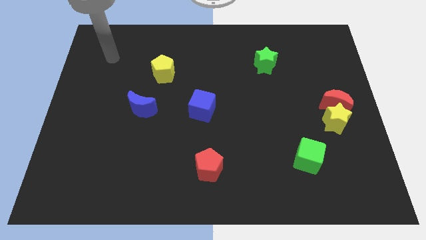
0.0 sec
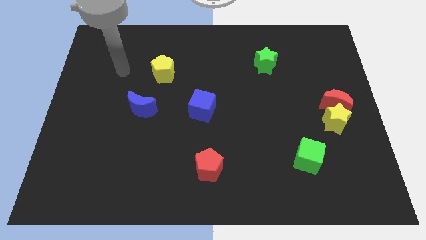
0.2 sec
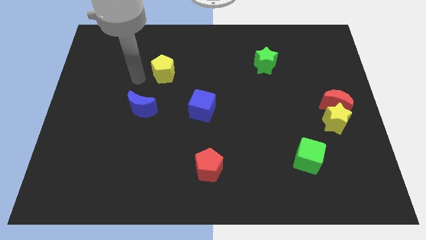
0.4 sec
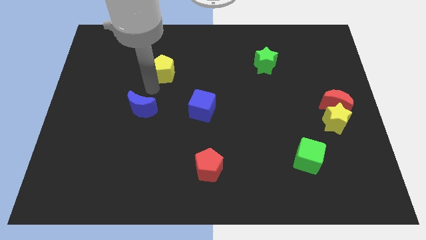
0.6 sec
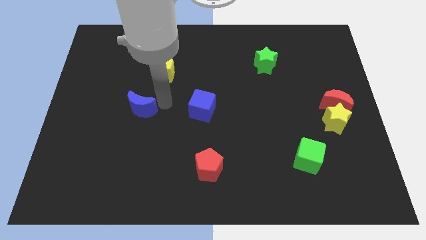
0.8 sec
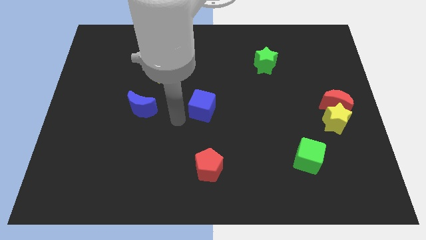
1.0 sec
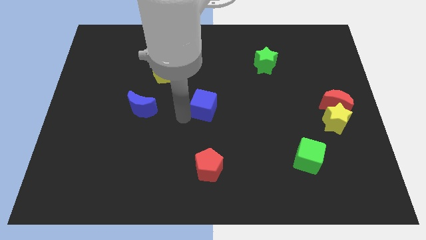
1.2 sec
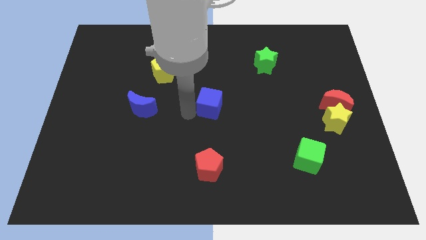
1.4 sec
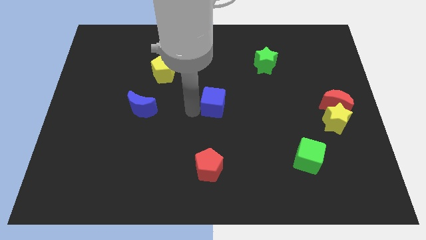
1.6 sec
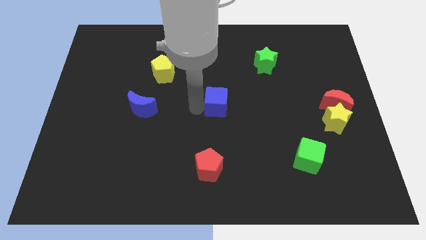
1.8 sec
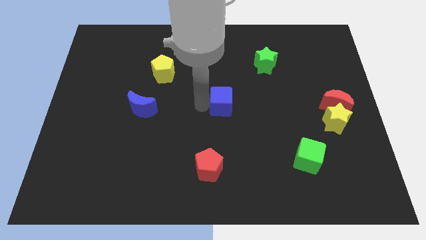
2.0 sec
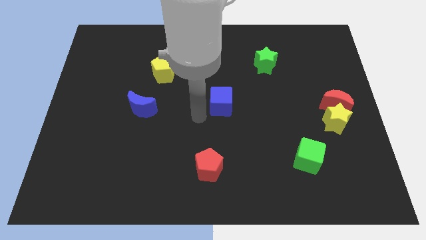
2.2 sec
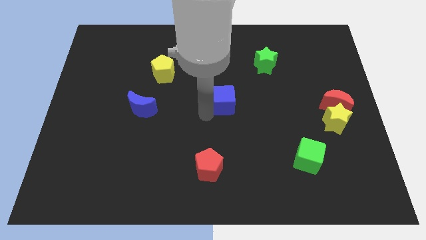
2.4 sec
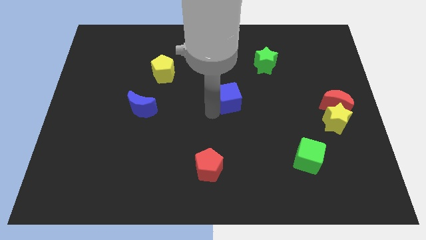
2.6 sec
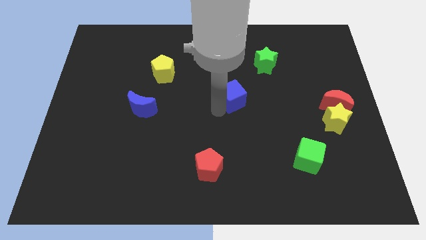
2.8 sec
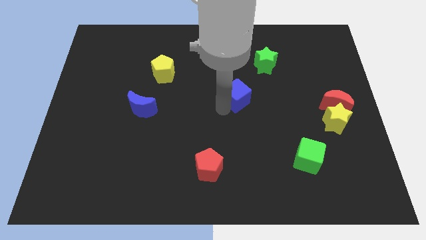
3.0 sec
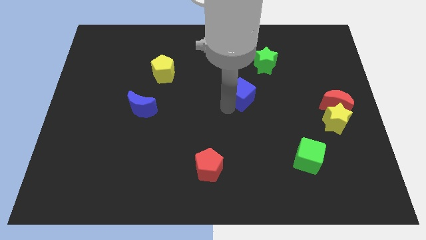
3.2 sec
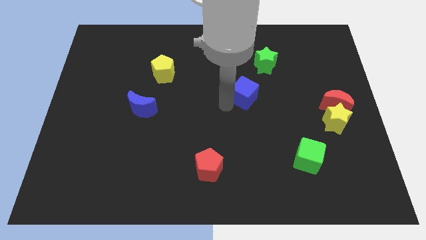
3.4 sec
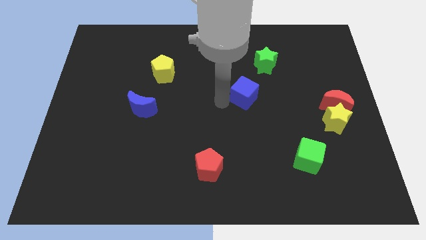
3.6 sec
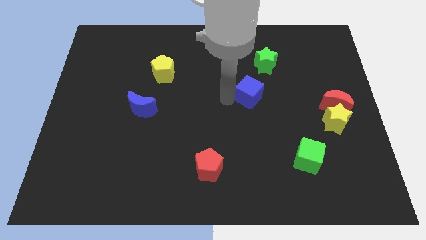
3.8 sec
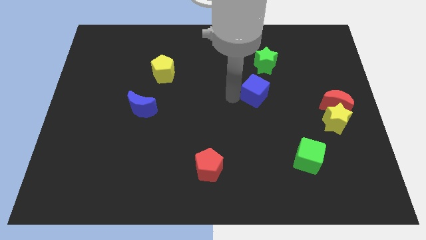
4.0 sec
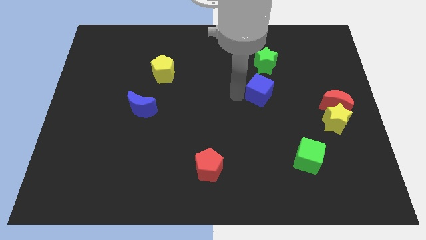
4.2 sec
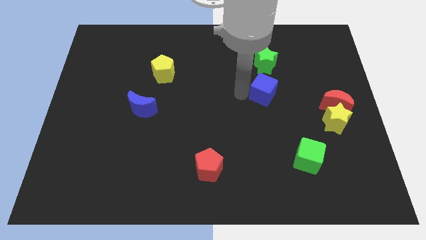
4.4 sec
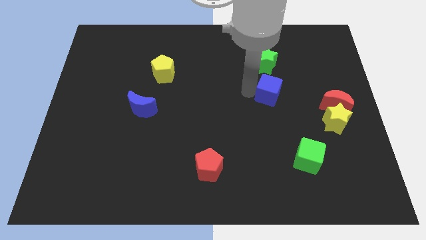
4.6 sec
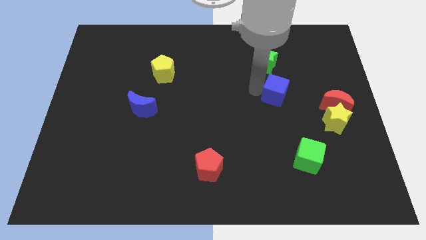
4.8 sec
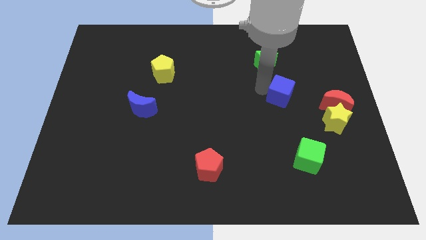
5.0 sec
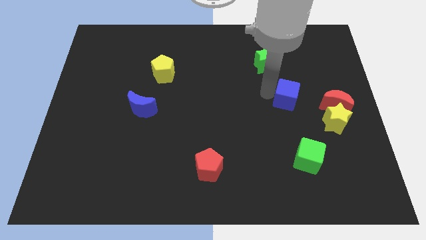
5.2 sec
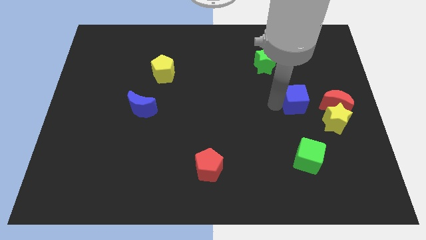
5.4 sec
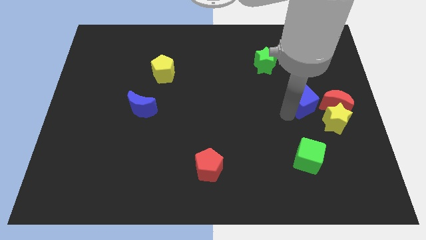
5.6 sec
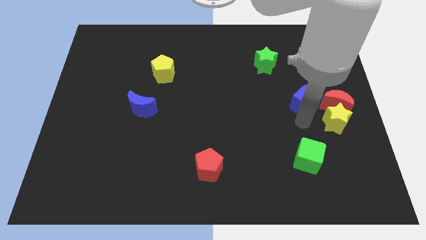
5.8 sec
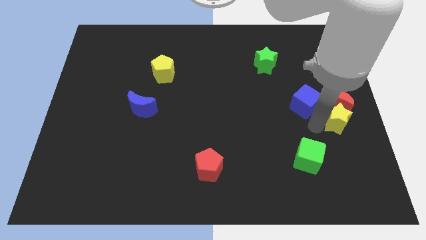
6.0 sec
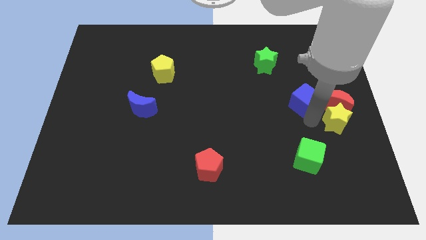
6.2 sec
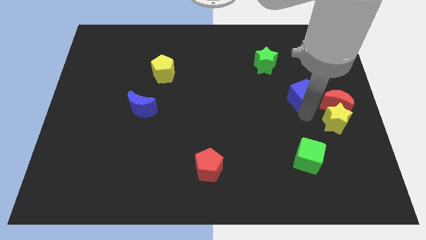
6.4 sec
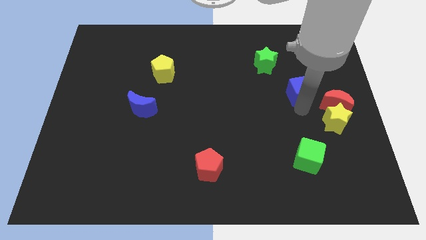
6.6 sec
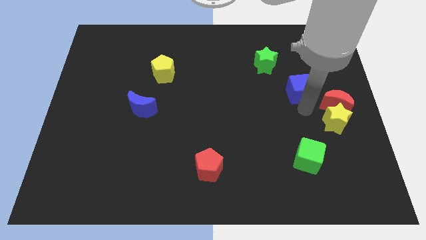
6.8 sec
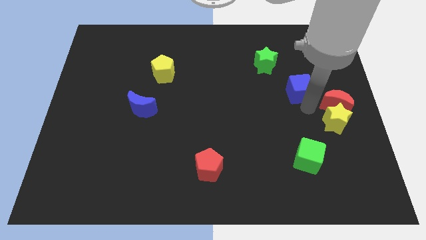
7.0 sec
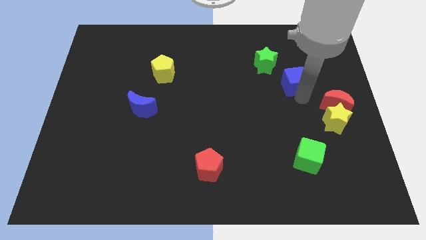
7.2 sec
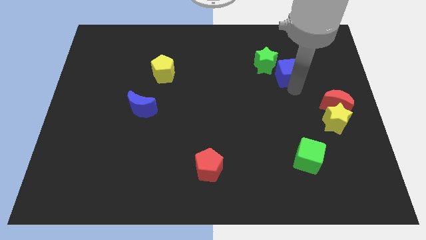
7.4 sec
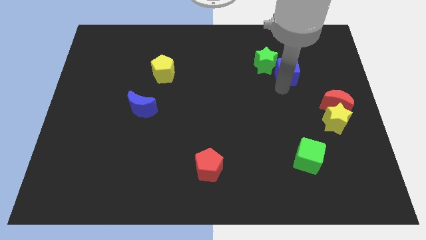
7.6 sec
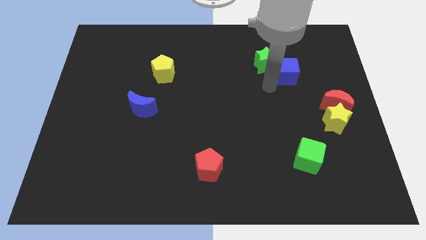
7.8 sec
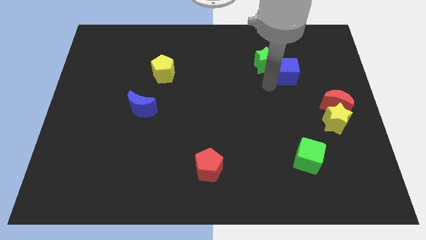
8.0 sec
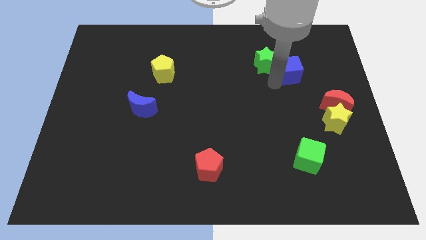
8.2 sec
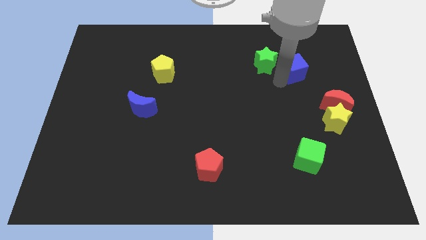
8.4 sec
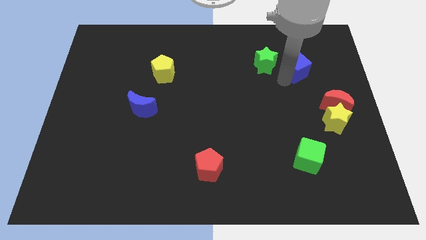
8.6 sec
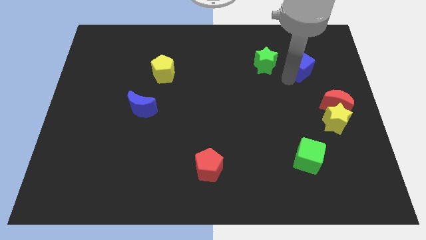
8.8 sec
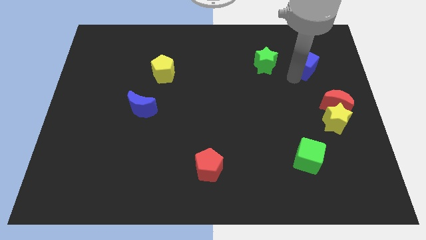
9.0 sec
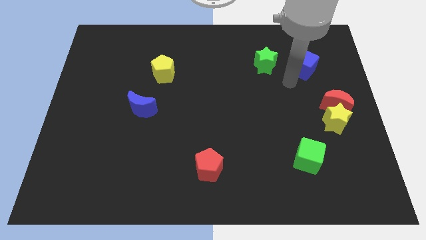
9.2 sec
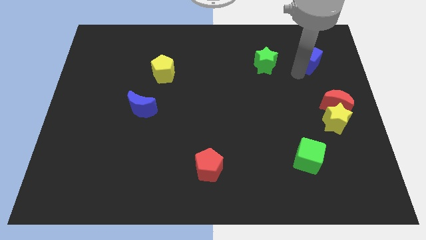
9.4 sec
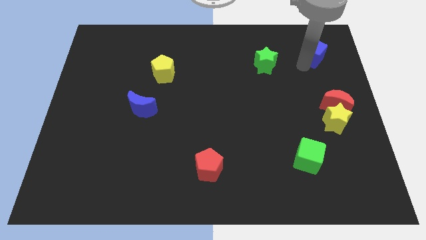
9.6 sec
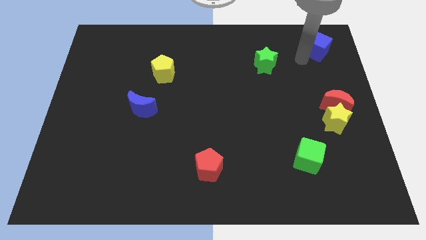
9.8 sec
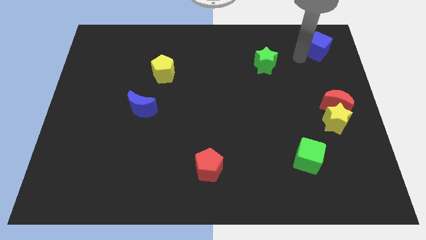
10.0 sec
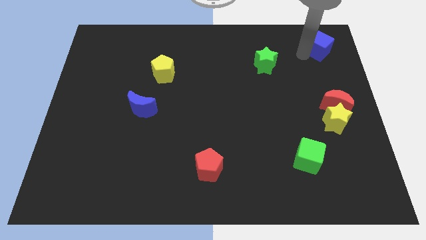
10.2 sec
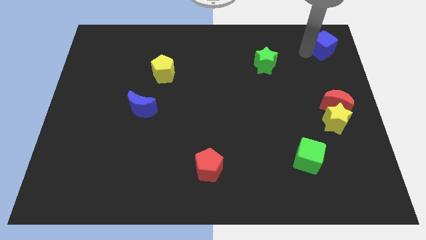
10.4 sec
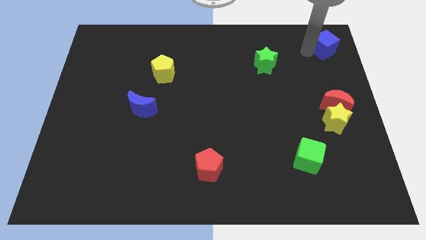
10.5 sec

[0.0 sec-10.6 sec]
push the blue cube to the top right

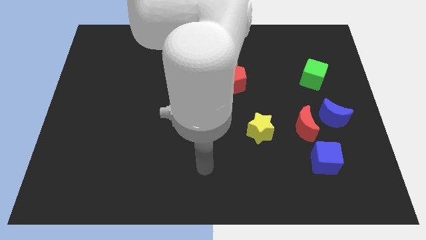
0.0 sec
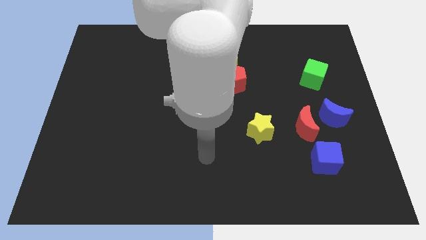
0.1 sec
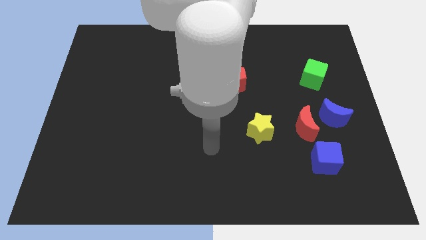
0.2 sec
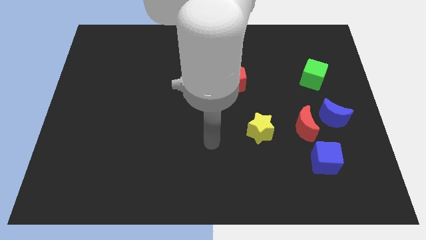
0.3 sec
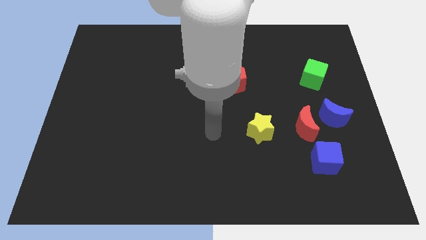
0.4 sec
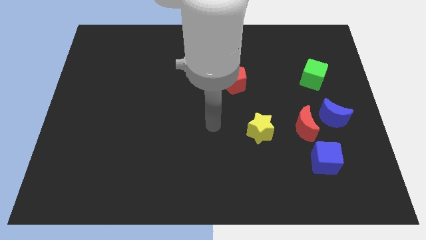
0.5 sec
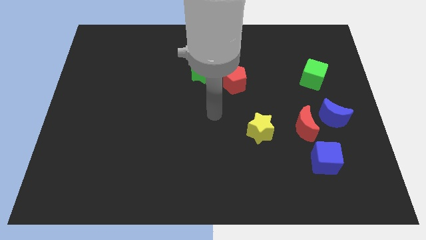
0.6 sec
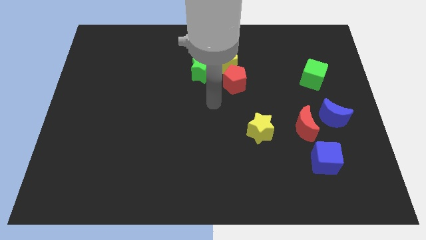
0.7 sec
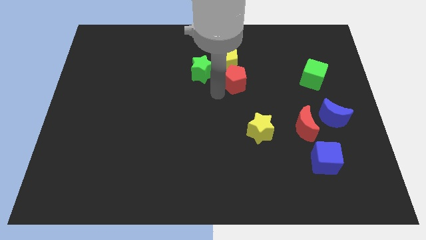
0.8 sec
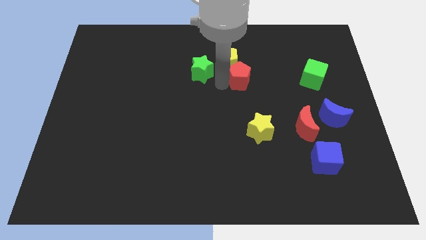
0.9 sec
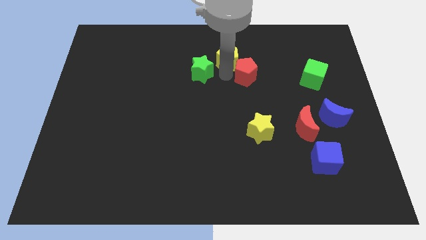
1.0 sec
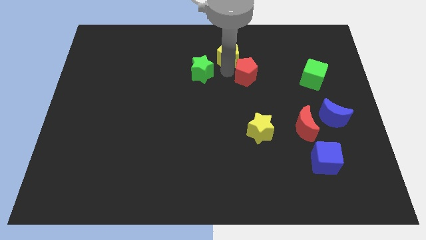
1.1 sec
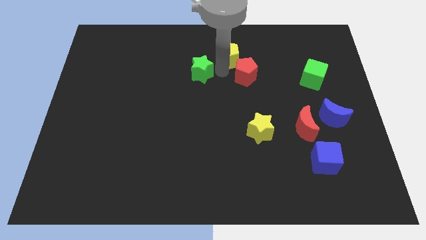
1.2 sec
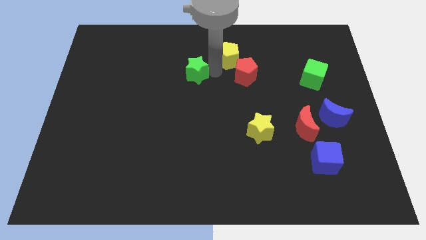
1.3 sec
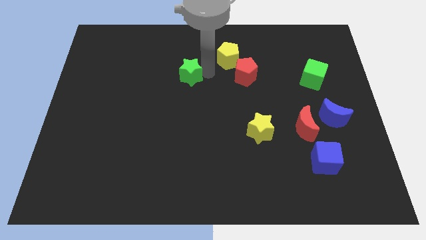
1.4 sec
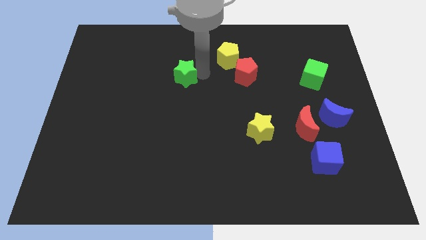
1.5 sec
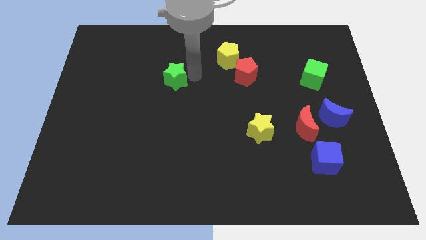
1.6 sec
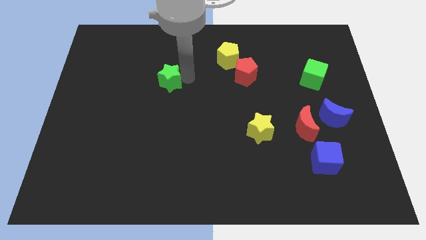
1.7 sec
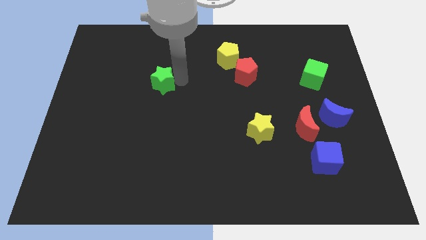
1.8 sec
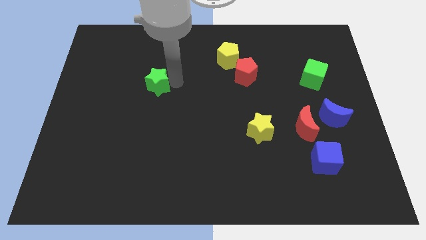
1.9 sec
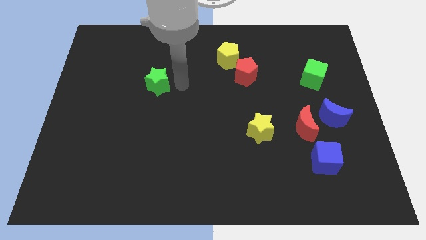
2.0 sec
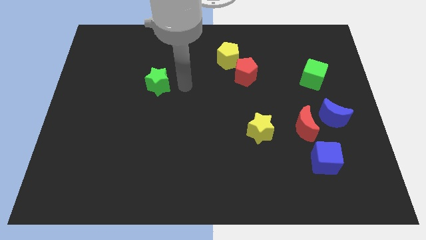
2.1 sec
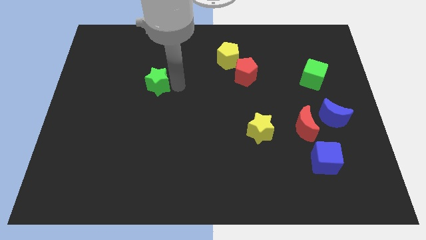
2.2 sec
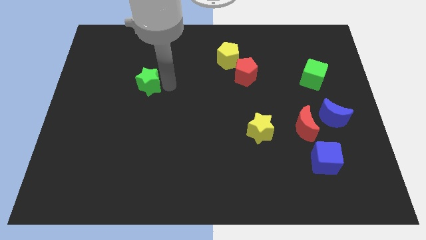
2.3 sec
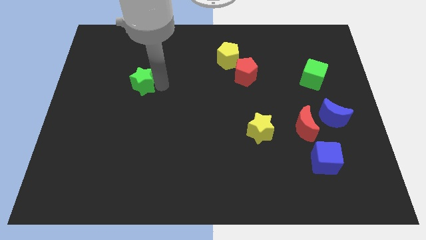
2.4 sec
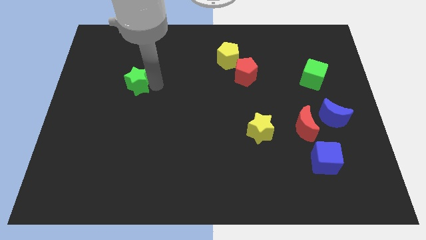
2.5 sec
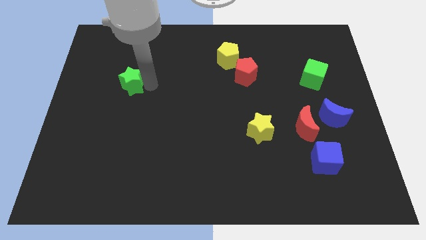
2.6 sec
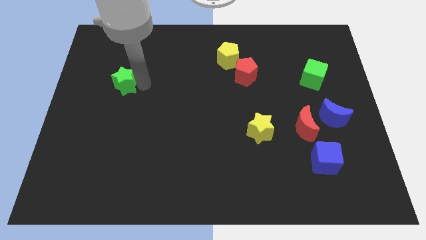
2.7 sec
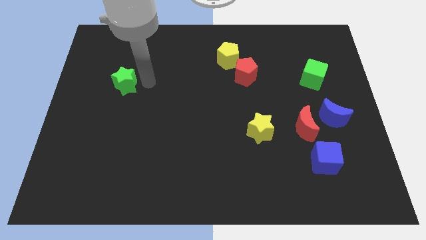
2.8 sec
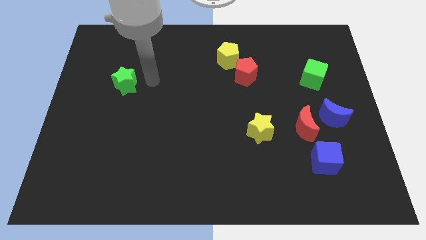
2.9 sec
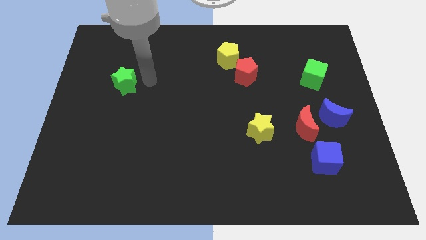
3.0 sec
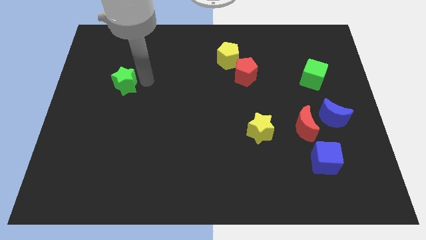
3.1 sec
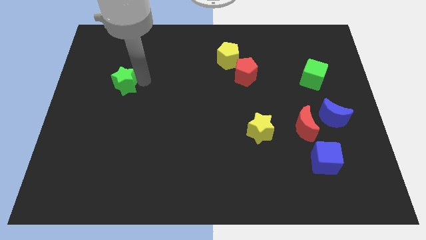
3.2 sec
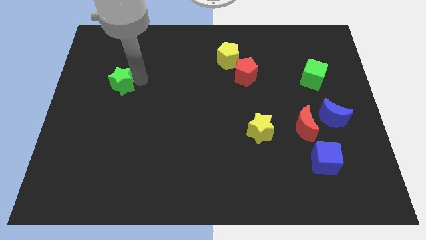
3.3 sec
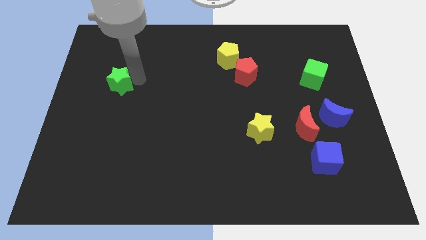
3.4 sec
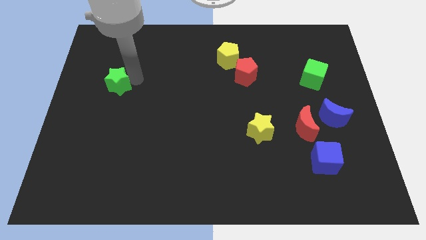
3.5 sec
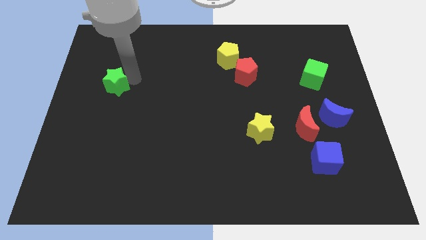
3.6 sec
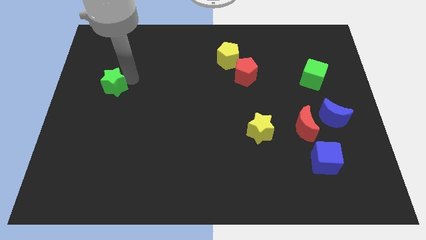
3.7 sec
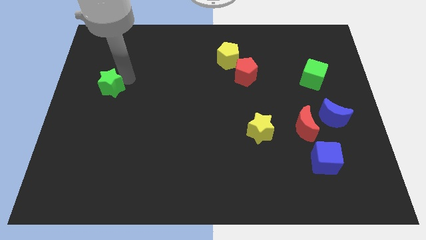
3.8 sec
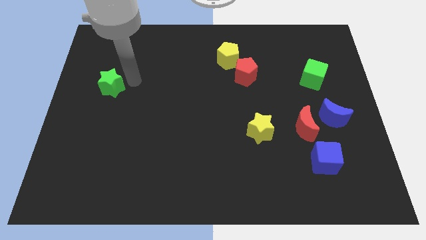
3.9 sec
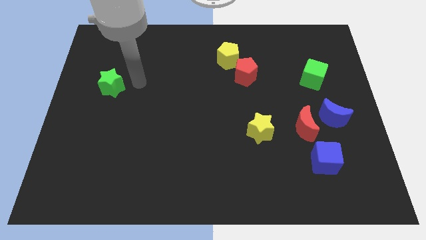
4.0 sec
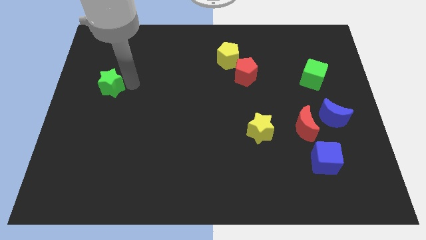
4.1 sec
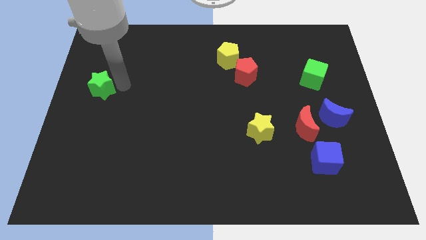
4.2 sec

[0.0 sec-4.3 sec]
push the green star to the left side
